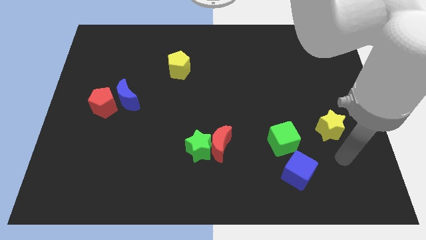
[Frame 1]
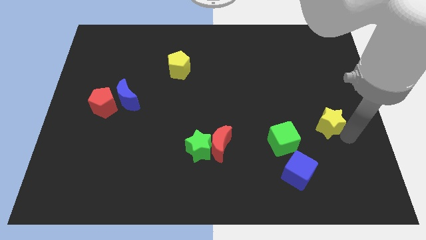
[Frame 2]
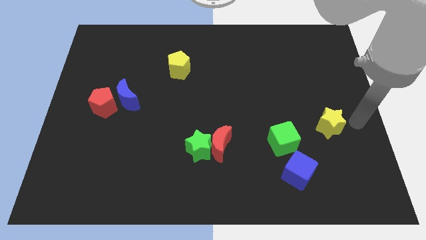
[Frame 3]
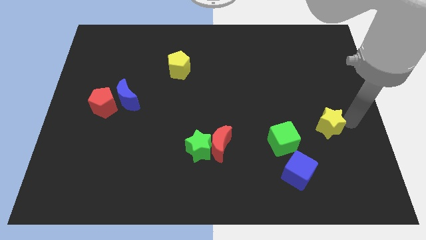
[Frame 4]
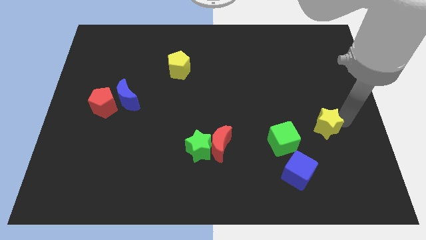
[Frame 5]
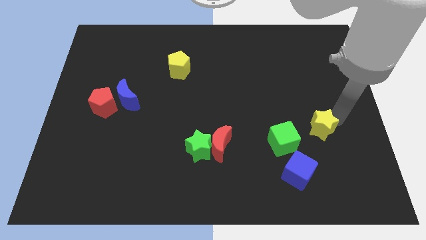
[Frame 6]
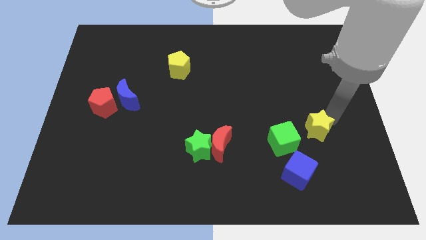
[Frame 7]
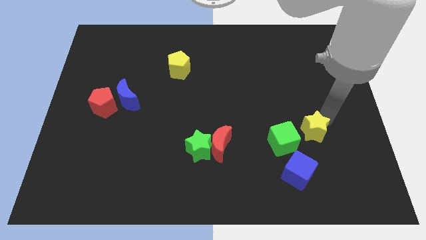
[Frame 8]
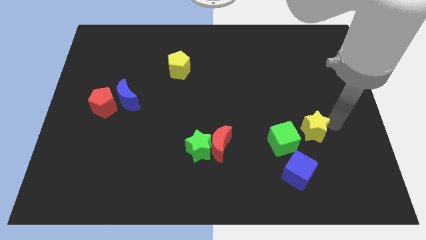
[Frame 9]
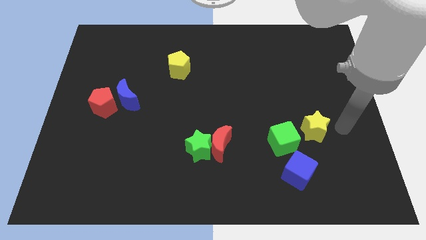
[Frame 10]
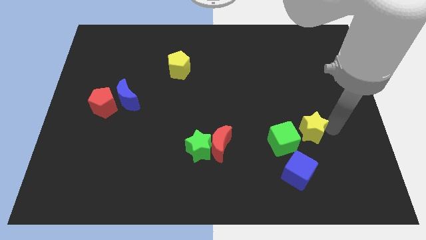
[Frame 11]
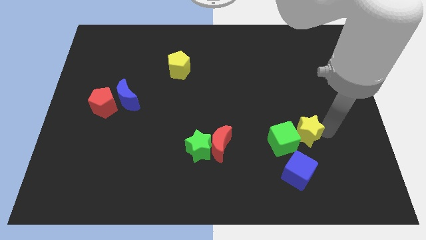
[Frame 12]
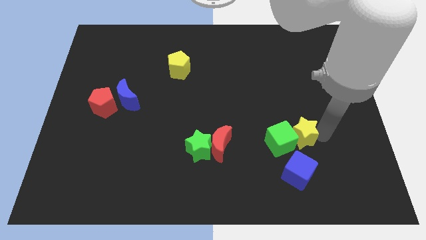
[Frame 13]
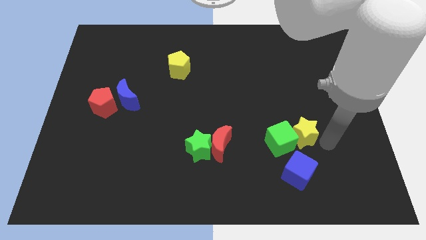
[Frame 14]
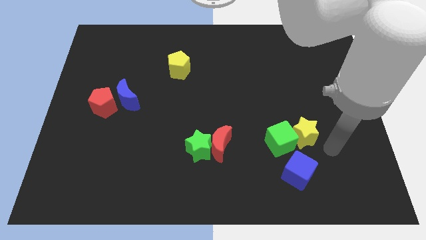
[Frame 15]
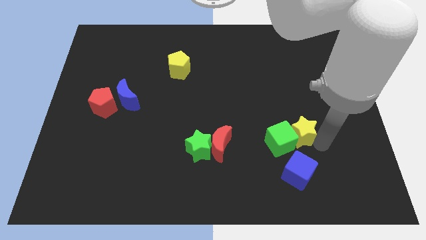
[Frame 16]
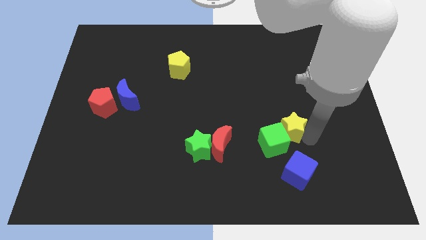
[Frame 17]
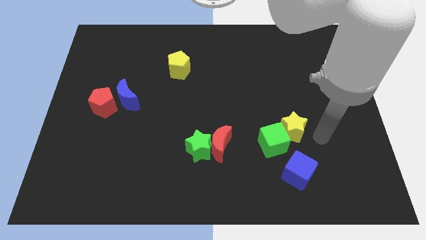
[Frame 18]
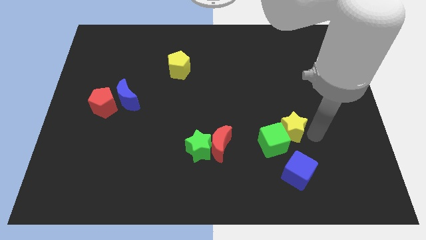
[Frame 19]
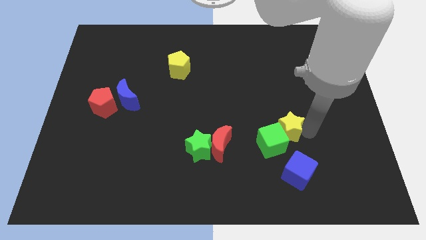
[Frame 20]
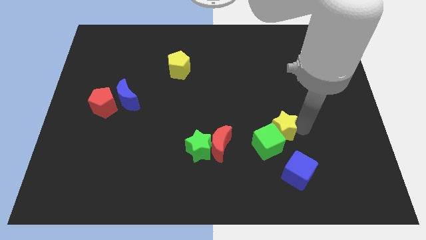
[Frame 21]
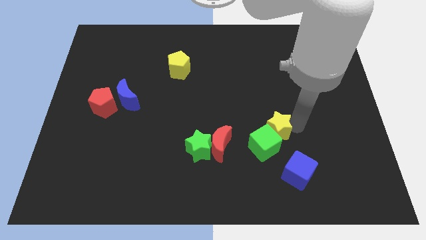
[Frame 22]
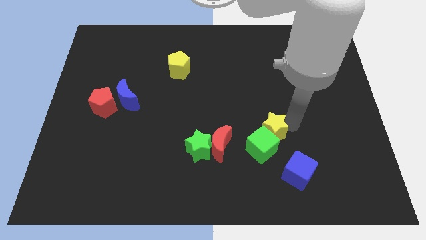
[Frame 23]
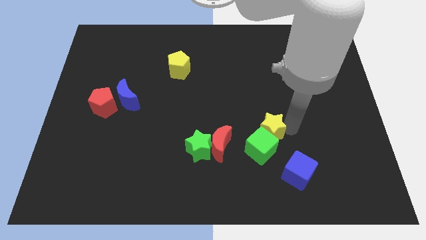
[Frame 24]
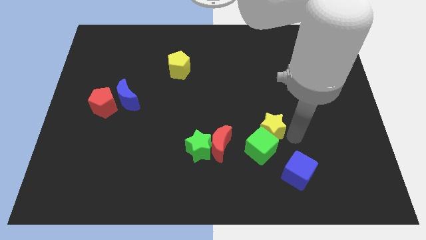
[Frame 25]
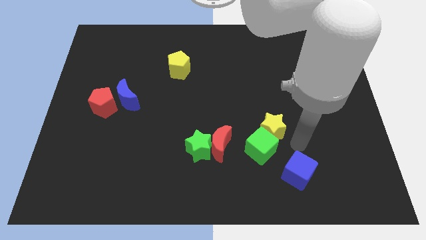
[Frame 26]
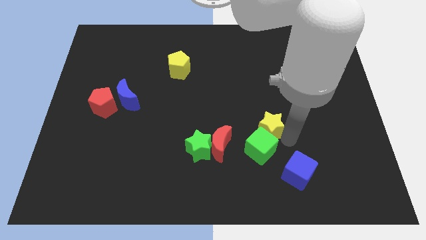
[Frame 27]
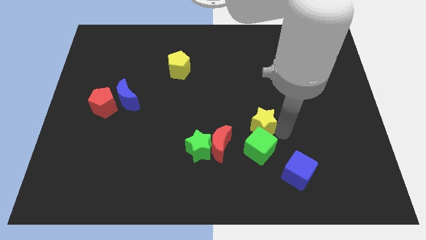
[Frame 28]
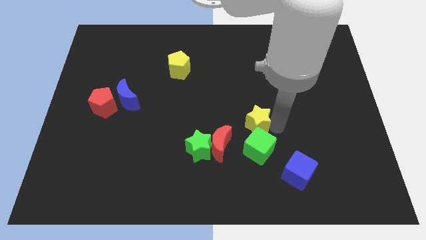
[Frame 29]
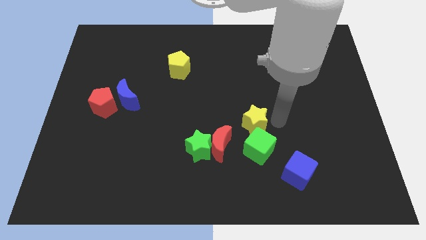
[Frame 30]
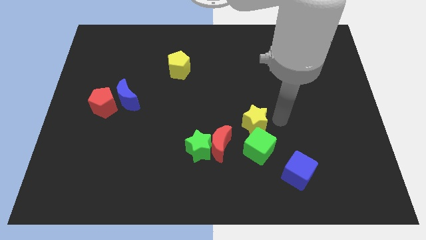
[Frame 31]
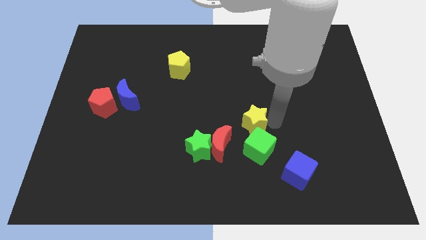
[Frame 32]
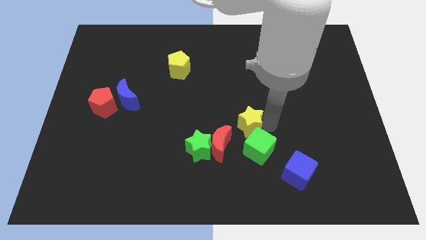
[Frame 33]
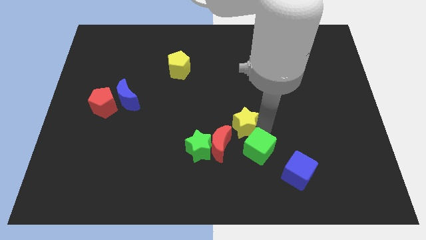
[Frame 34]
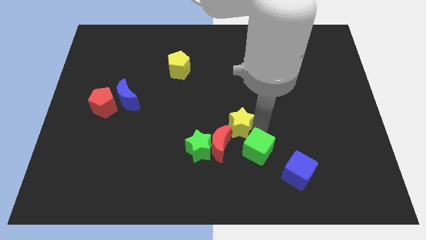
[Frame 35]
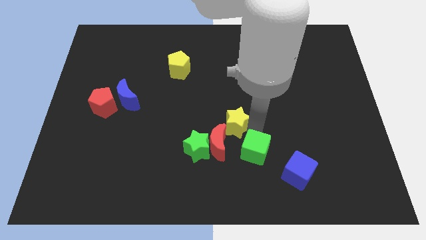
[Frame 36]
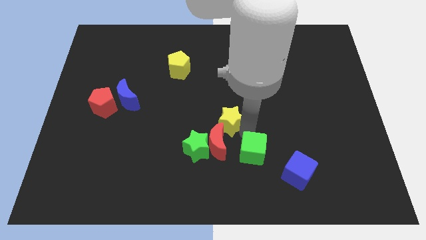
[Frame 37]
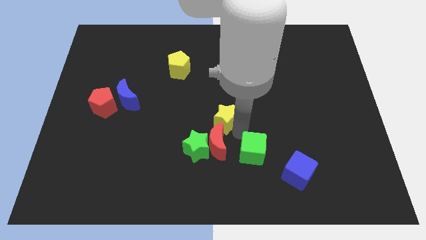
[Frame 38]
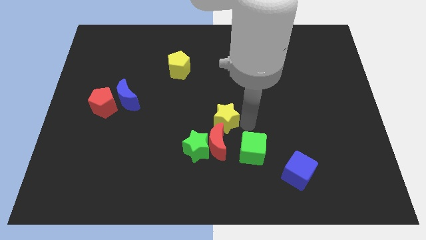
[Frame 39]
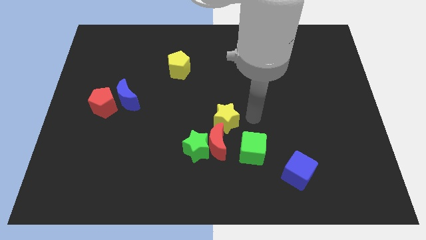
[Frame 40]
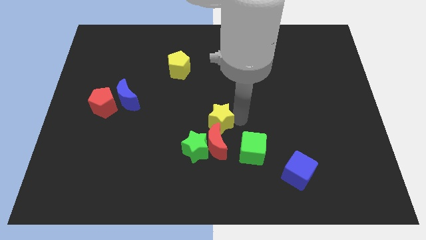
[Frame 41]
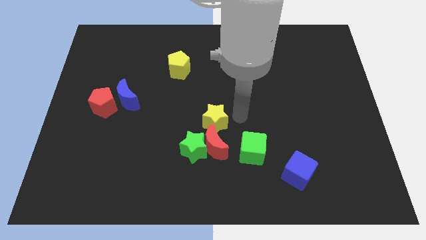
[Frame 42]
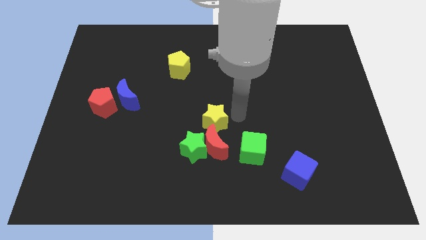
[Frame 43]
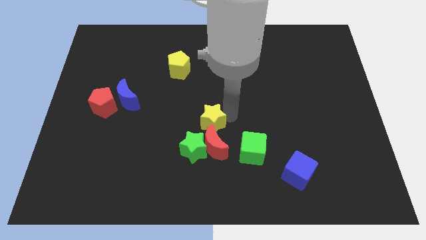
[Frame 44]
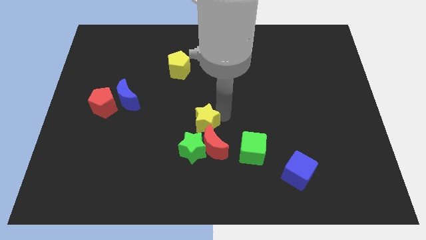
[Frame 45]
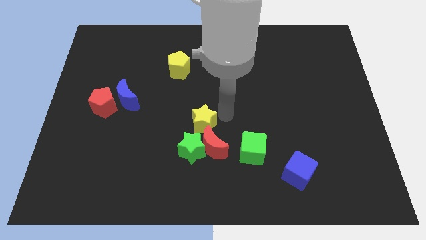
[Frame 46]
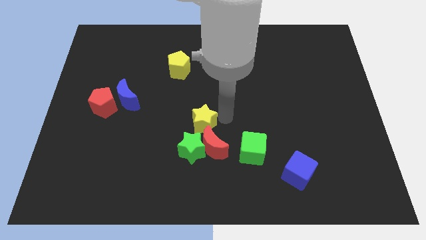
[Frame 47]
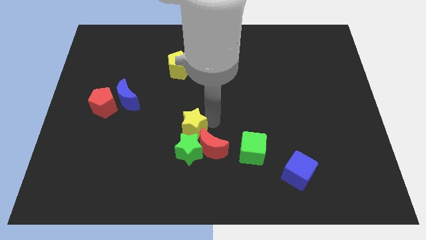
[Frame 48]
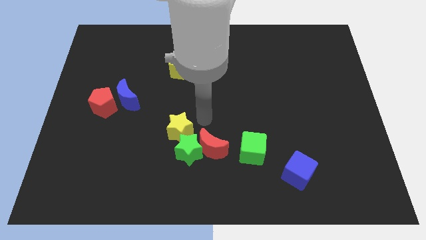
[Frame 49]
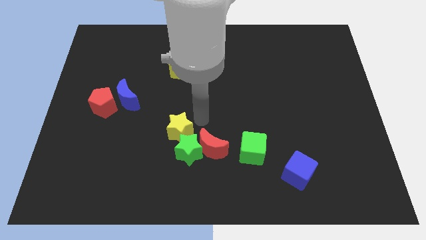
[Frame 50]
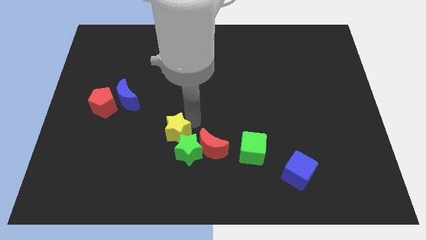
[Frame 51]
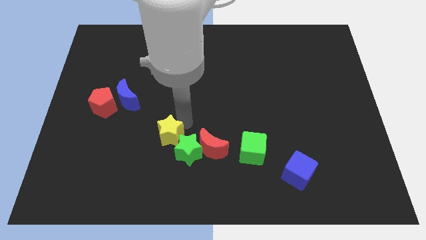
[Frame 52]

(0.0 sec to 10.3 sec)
slide the yellow star left of the green star

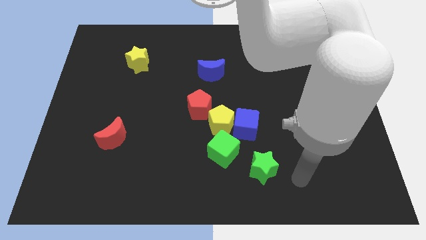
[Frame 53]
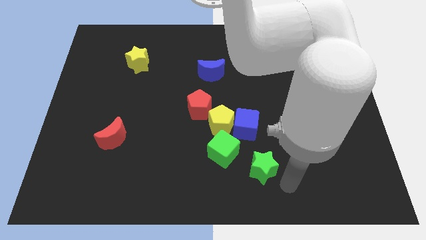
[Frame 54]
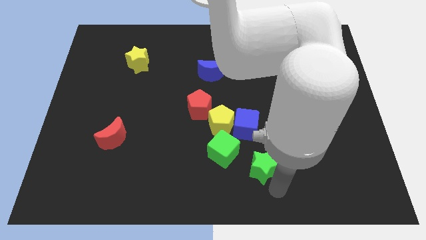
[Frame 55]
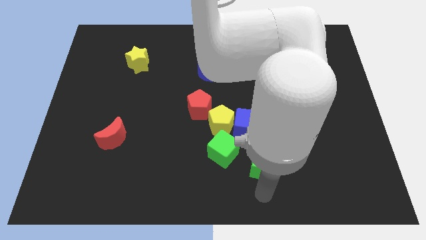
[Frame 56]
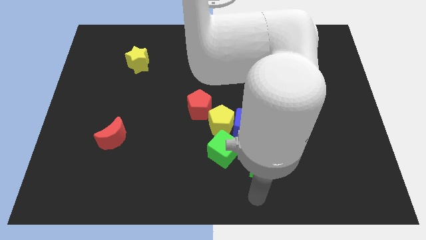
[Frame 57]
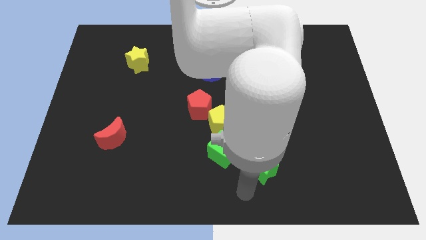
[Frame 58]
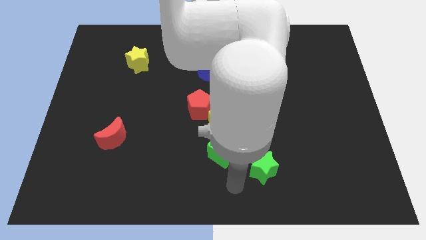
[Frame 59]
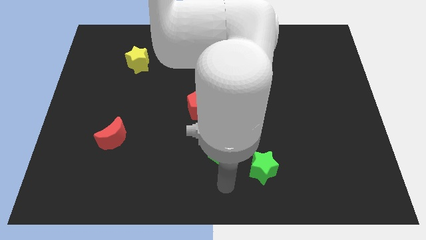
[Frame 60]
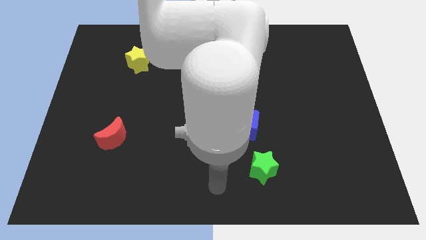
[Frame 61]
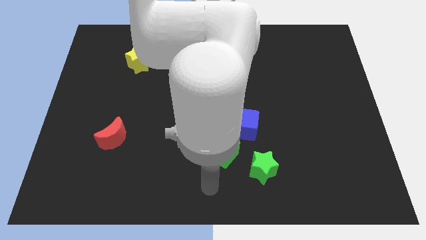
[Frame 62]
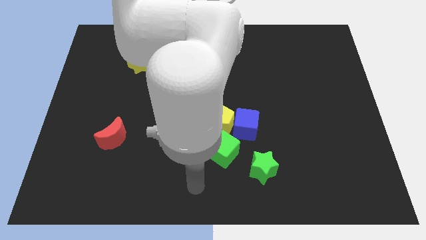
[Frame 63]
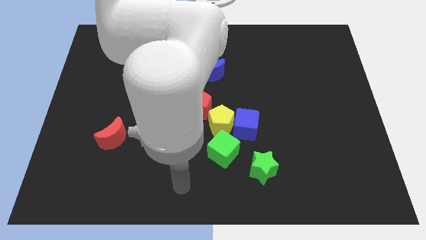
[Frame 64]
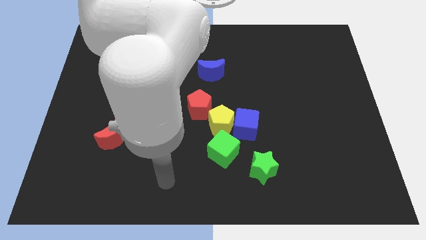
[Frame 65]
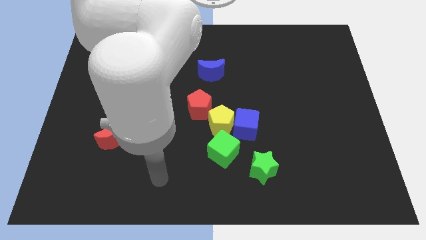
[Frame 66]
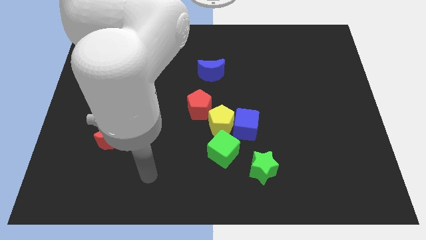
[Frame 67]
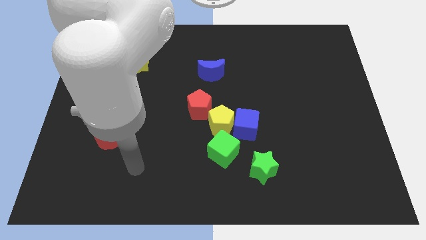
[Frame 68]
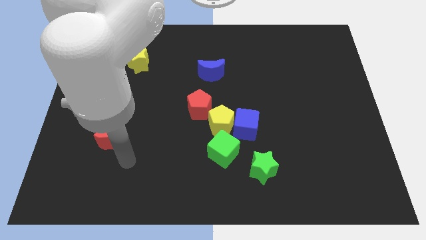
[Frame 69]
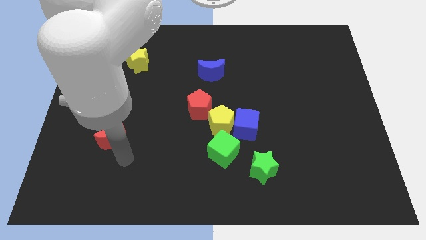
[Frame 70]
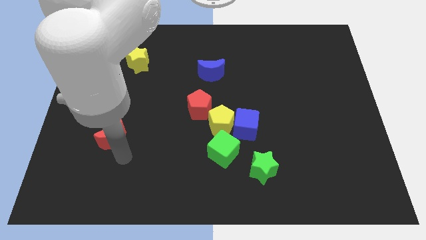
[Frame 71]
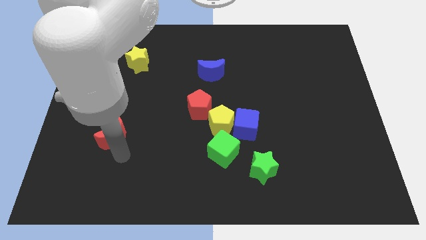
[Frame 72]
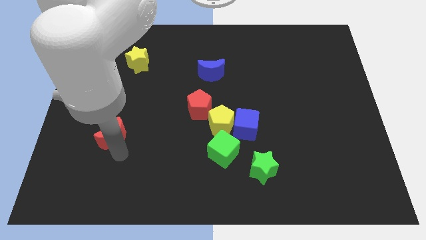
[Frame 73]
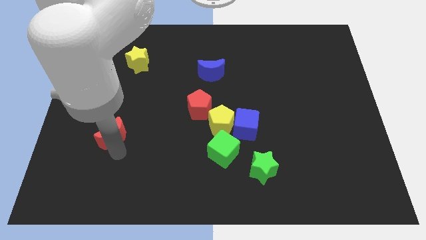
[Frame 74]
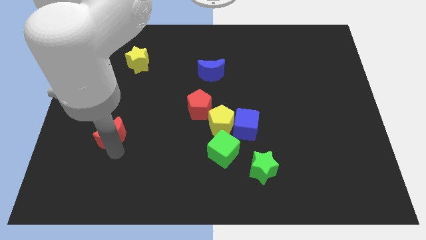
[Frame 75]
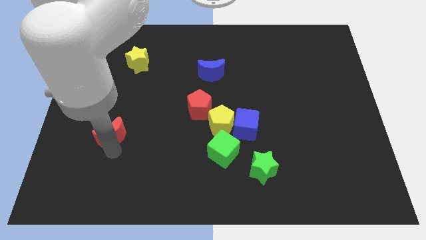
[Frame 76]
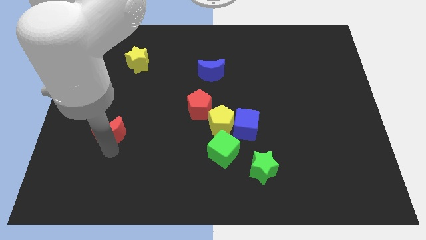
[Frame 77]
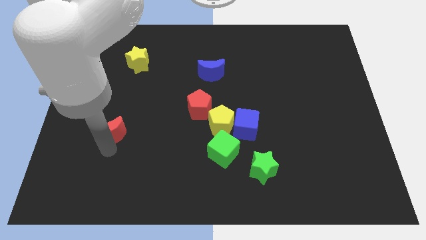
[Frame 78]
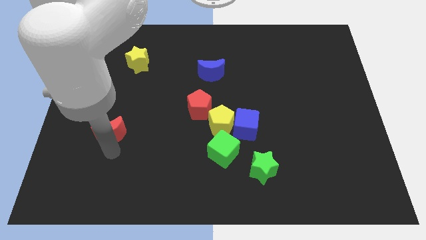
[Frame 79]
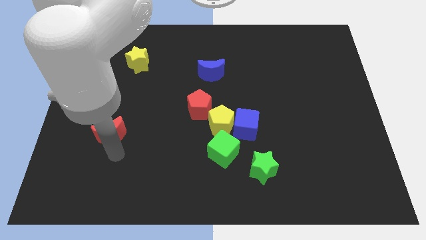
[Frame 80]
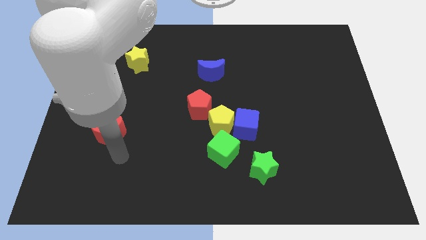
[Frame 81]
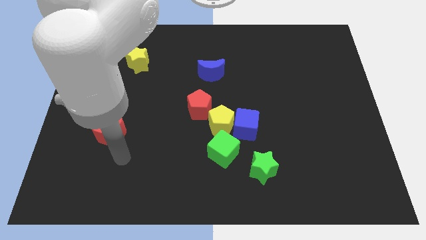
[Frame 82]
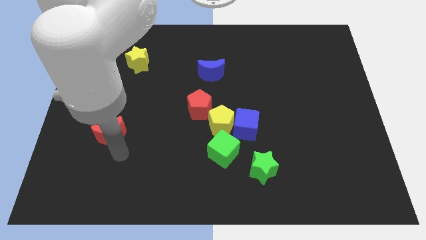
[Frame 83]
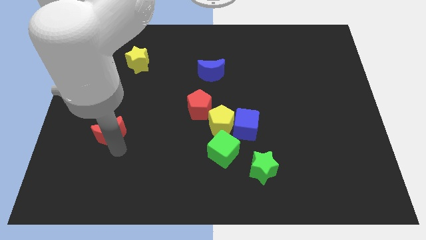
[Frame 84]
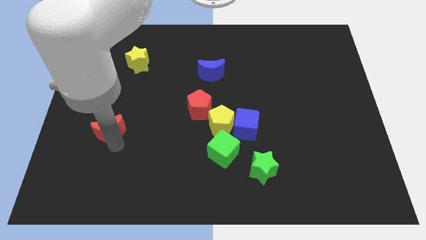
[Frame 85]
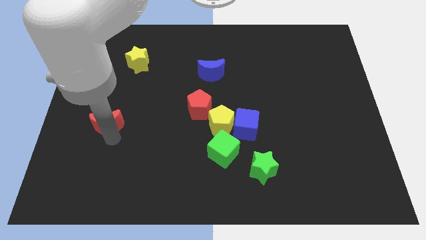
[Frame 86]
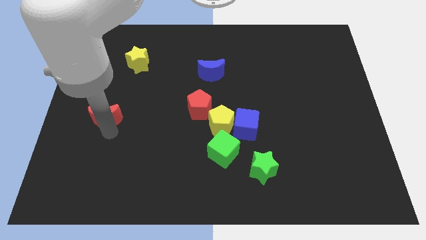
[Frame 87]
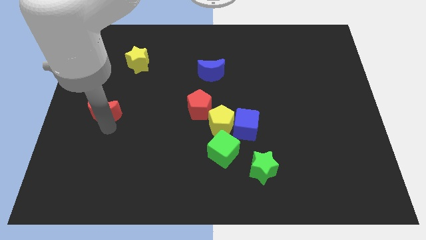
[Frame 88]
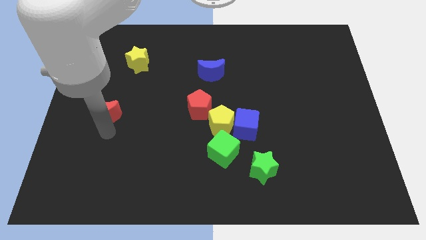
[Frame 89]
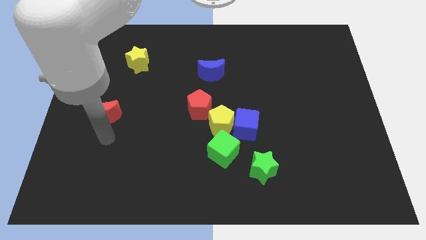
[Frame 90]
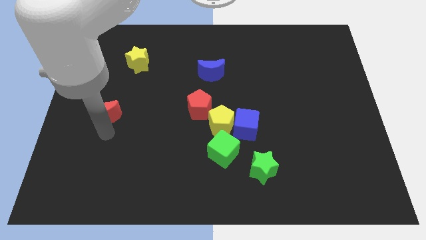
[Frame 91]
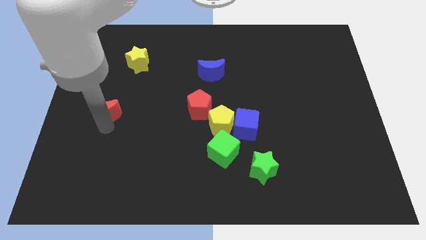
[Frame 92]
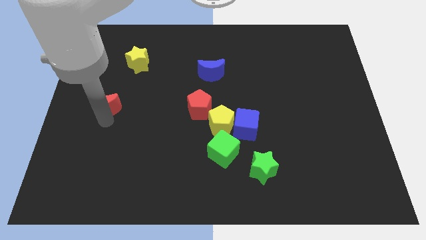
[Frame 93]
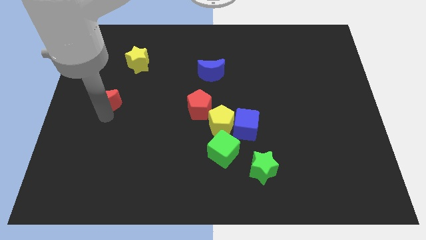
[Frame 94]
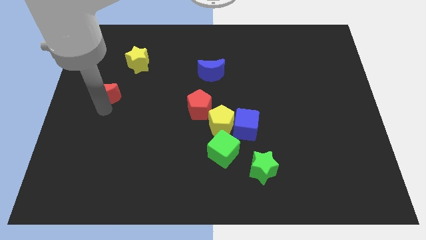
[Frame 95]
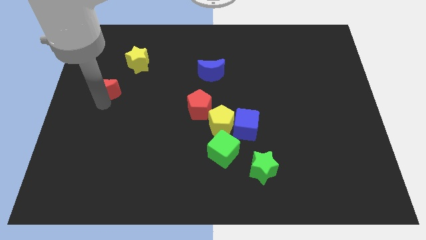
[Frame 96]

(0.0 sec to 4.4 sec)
push the red moon to the bottom left of the yellow star
